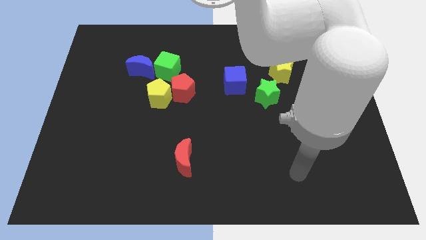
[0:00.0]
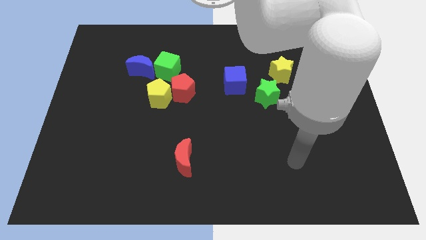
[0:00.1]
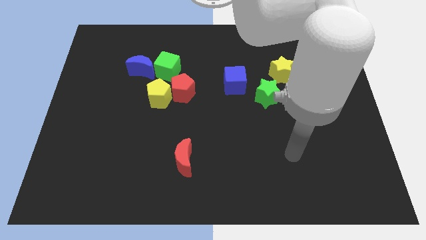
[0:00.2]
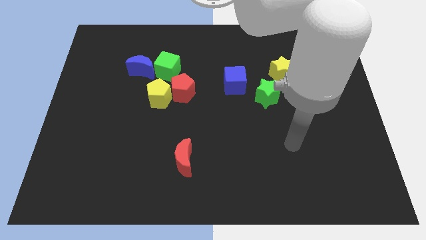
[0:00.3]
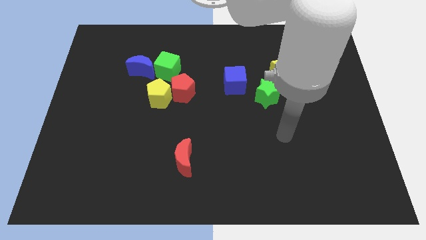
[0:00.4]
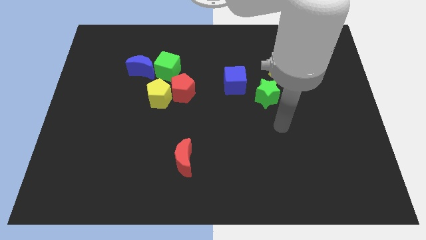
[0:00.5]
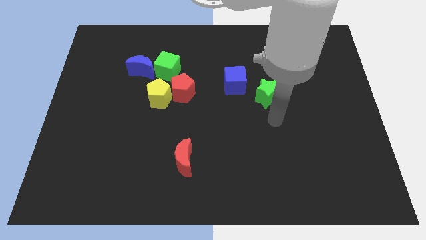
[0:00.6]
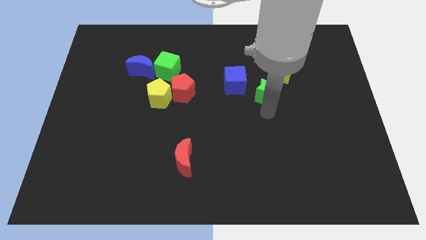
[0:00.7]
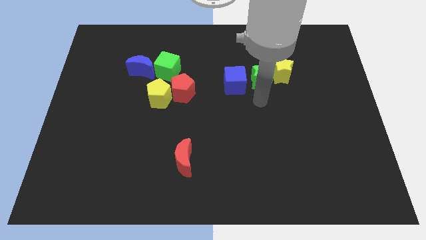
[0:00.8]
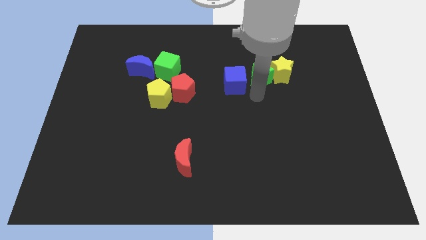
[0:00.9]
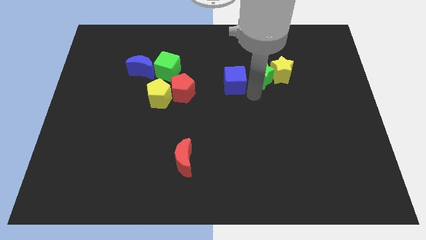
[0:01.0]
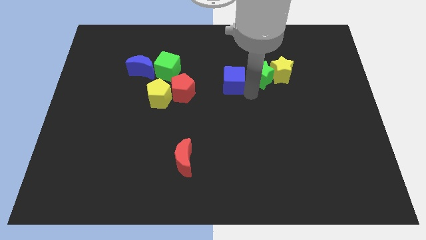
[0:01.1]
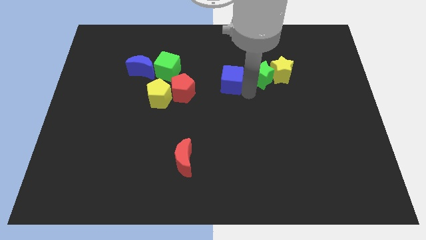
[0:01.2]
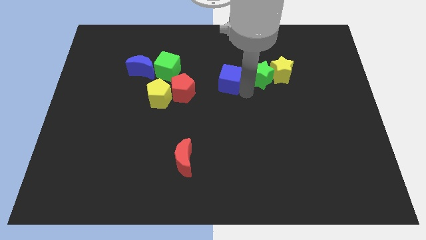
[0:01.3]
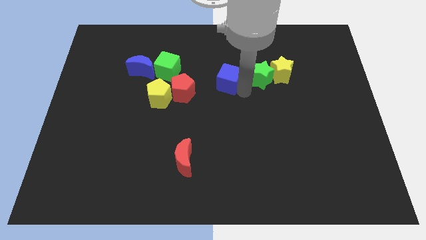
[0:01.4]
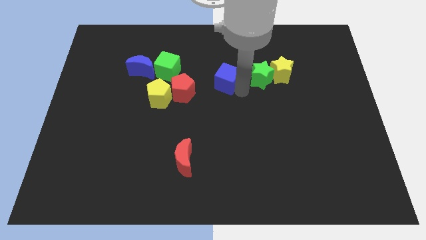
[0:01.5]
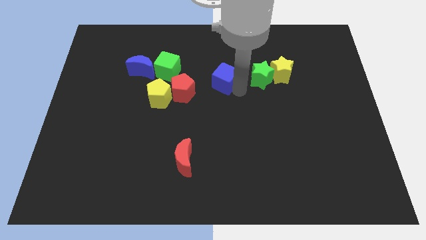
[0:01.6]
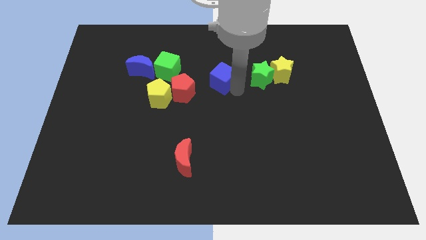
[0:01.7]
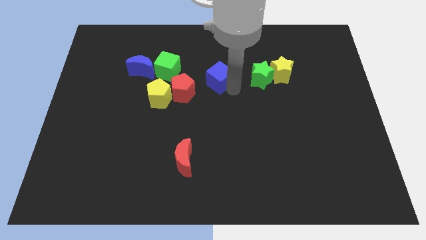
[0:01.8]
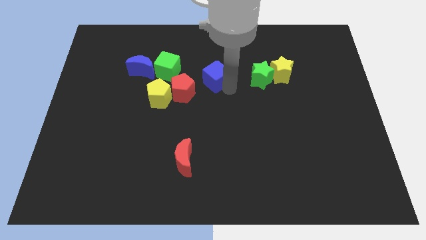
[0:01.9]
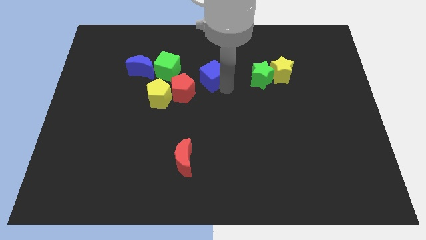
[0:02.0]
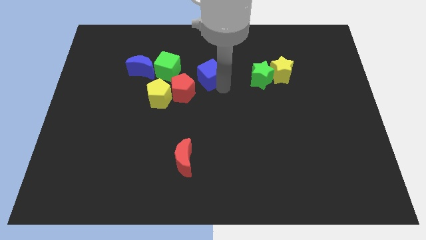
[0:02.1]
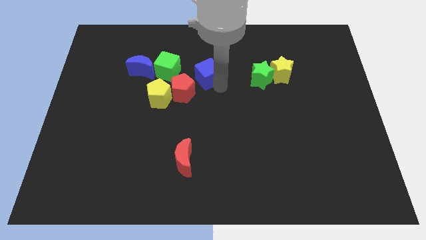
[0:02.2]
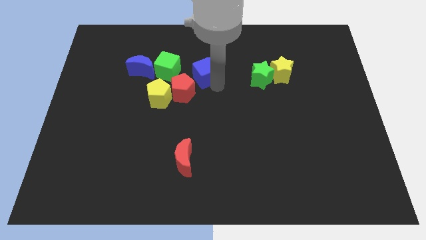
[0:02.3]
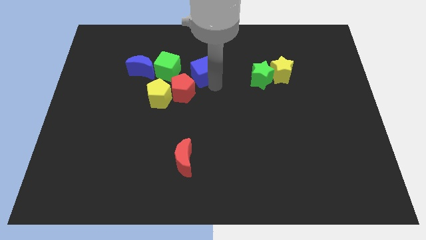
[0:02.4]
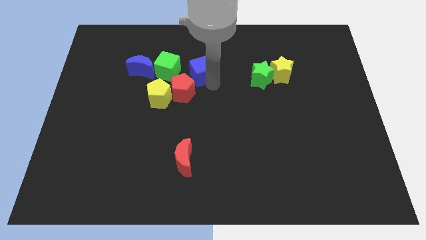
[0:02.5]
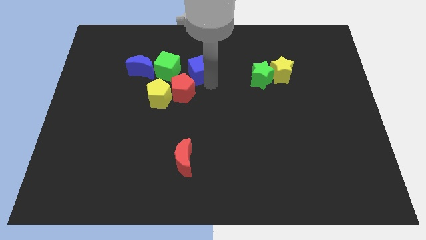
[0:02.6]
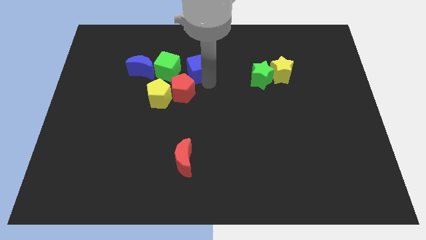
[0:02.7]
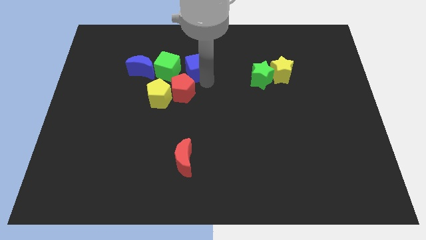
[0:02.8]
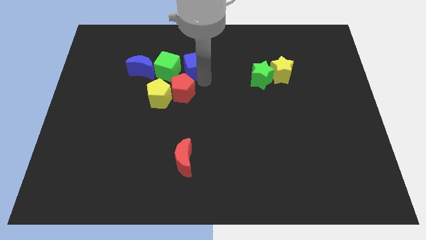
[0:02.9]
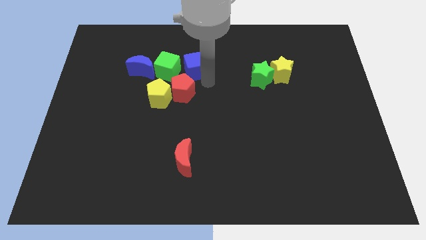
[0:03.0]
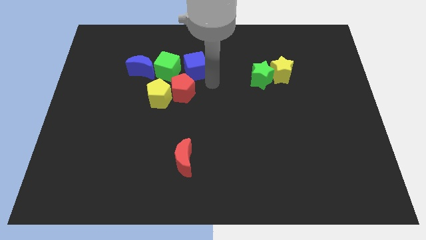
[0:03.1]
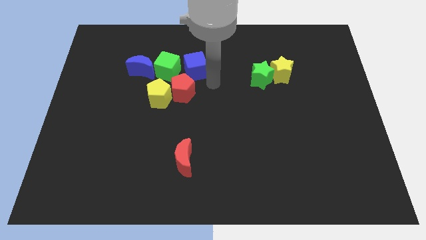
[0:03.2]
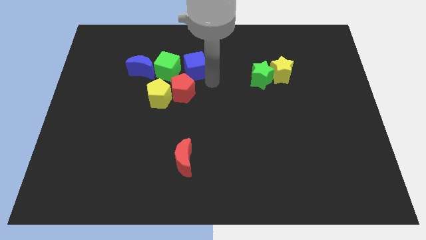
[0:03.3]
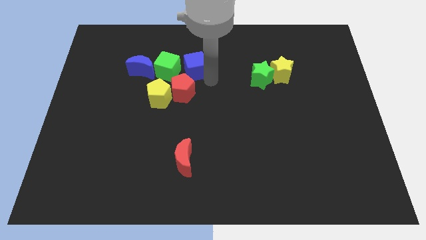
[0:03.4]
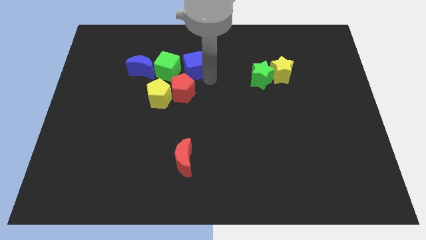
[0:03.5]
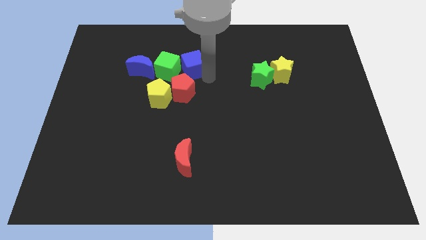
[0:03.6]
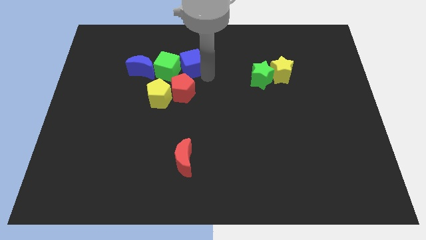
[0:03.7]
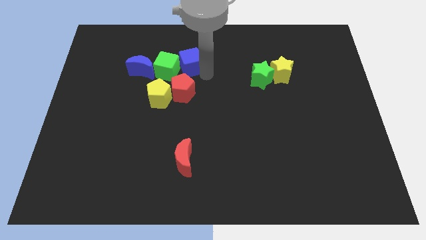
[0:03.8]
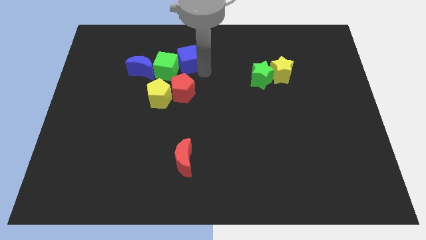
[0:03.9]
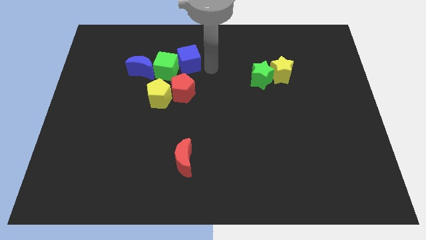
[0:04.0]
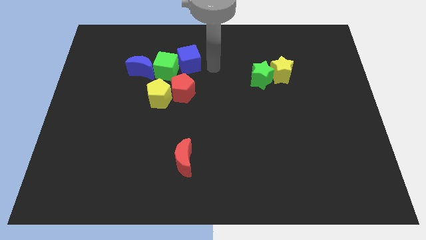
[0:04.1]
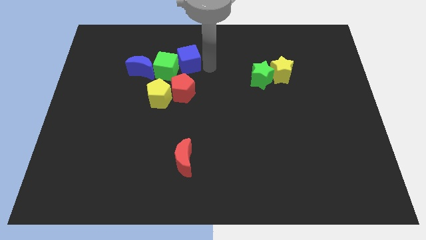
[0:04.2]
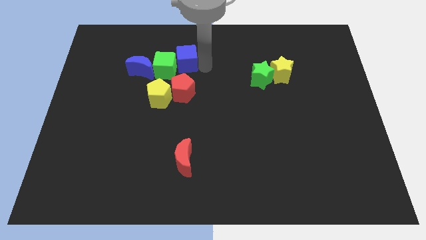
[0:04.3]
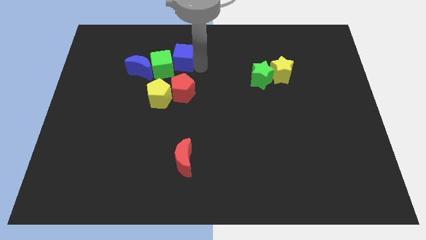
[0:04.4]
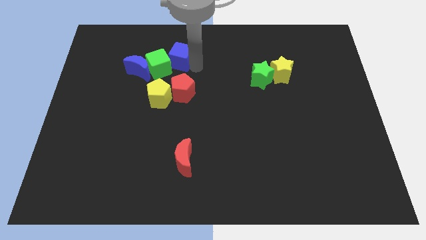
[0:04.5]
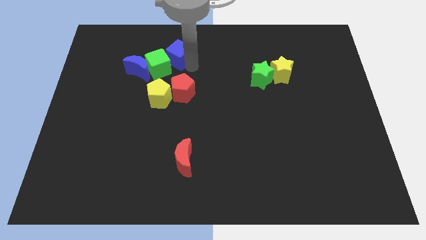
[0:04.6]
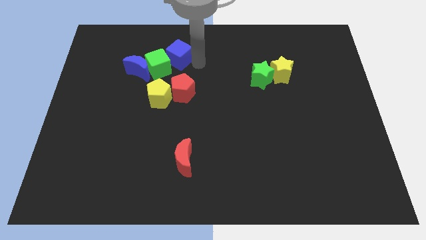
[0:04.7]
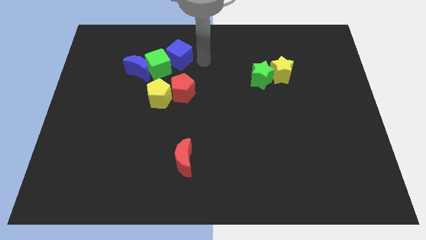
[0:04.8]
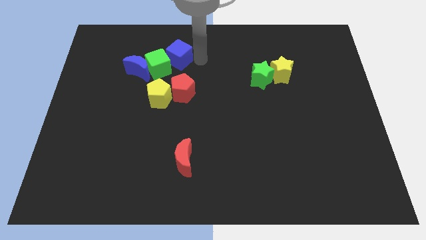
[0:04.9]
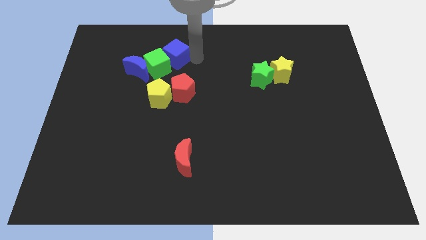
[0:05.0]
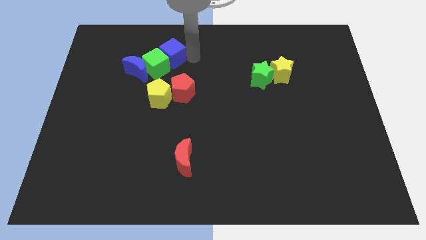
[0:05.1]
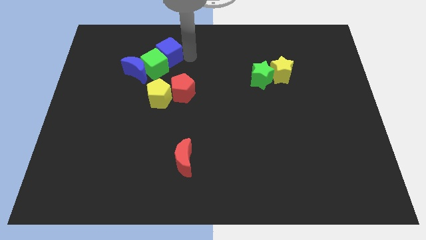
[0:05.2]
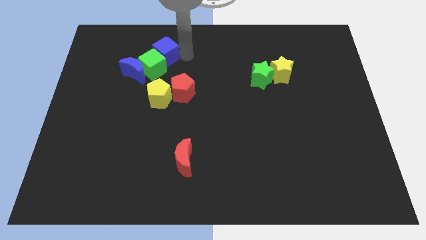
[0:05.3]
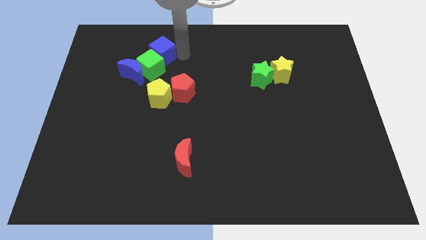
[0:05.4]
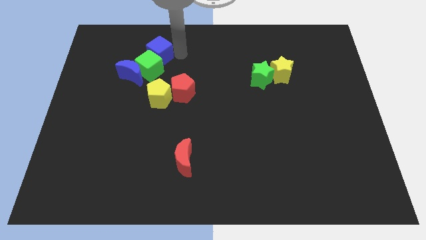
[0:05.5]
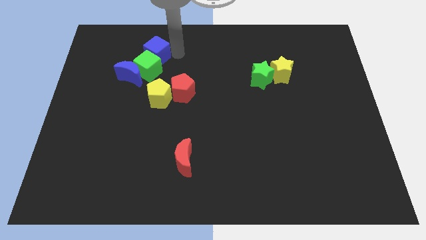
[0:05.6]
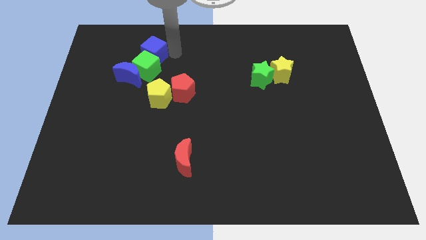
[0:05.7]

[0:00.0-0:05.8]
slide the blue cube to the top left side of the green cube
